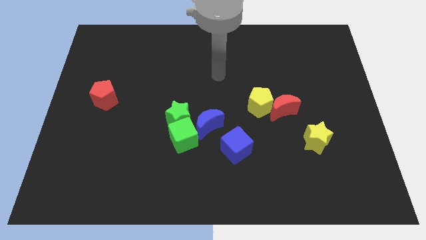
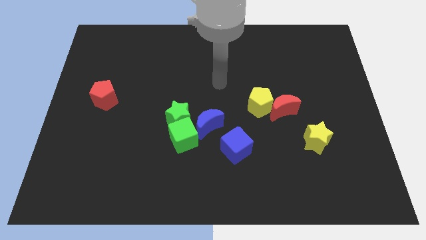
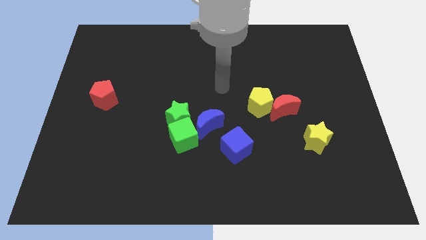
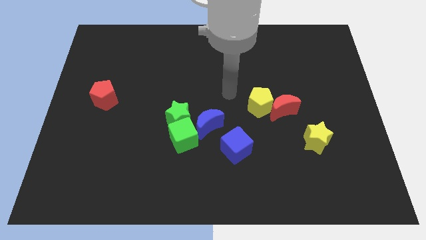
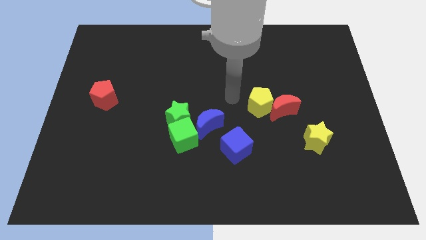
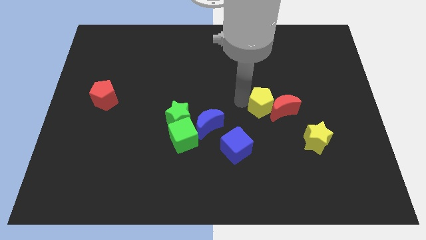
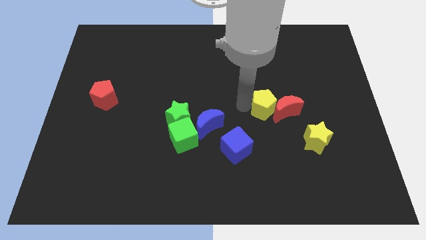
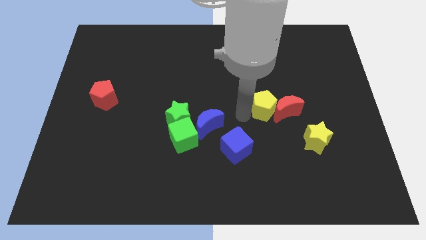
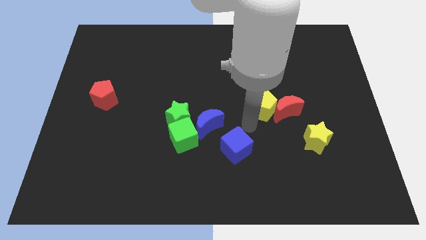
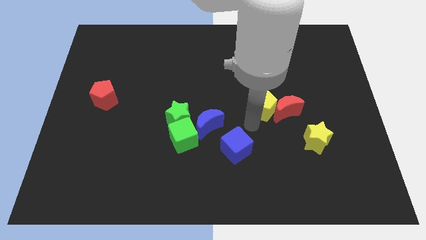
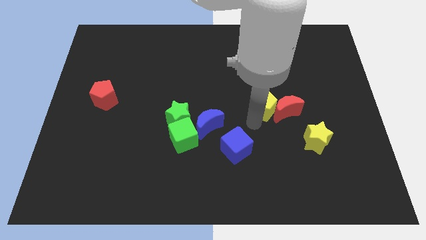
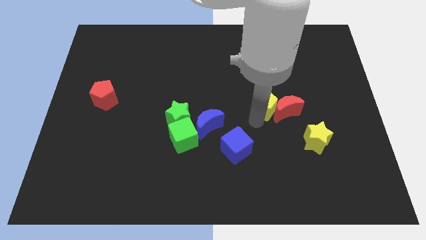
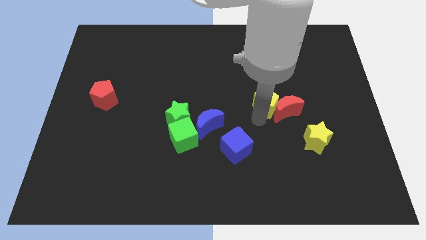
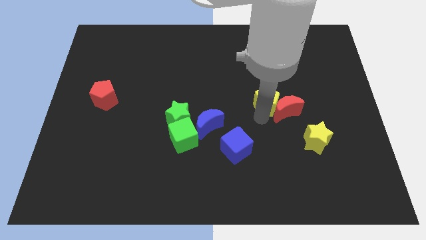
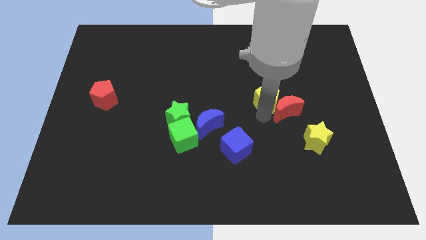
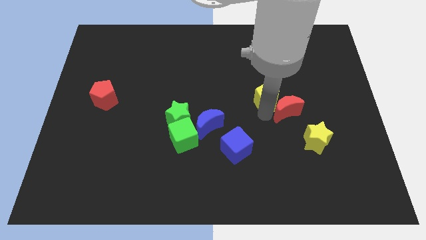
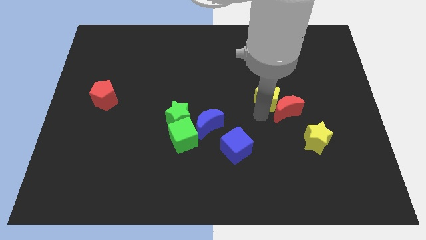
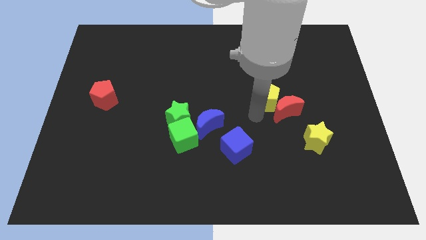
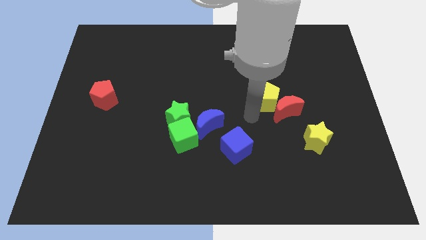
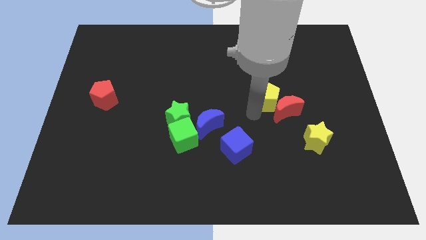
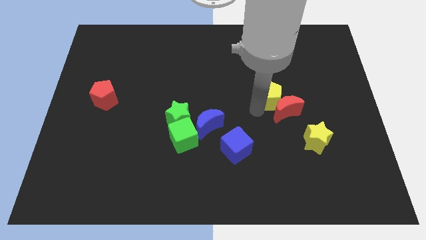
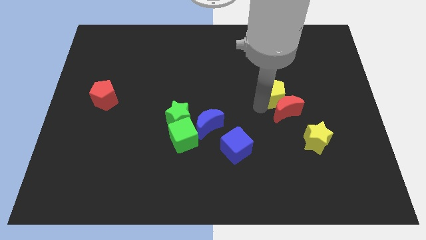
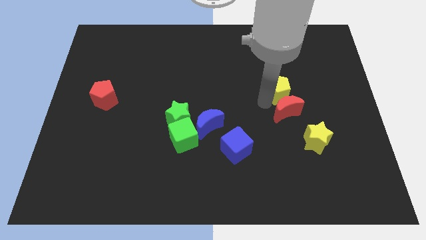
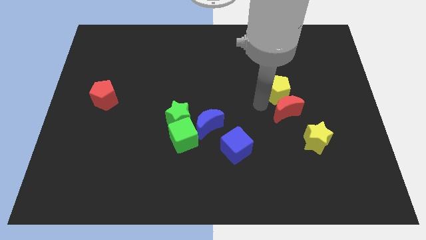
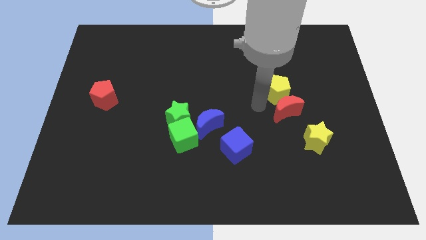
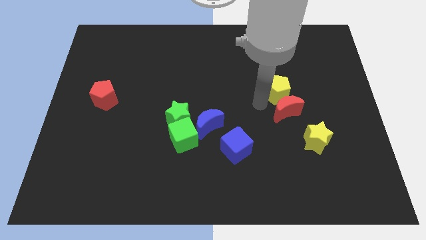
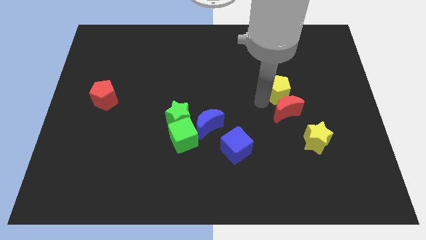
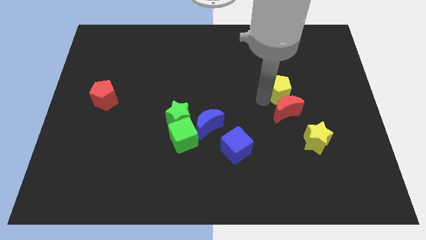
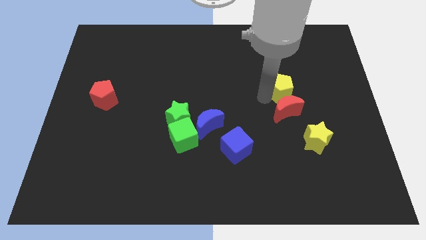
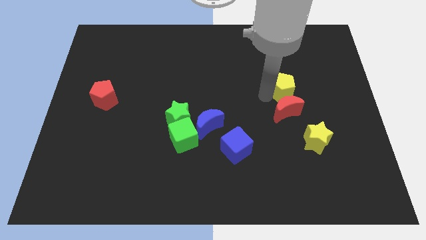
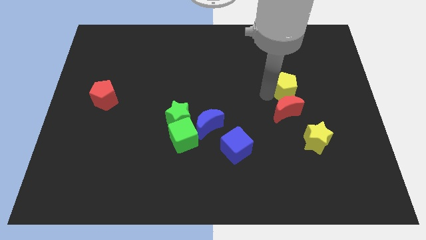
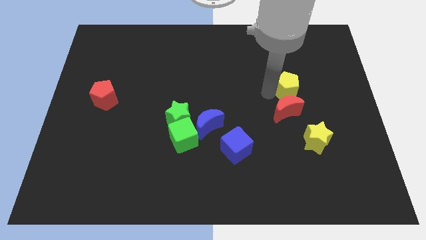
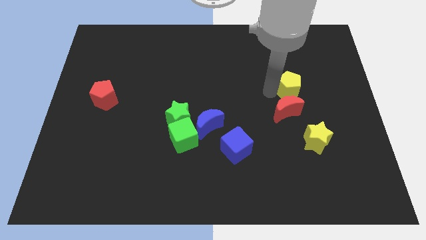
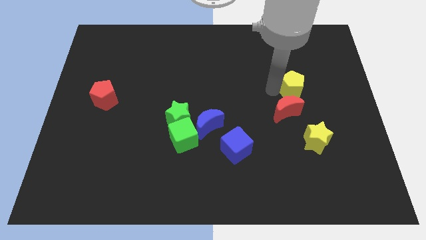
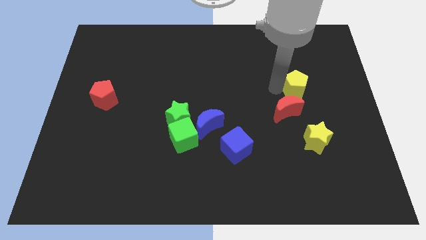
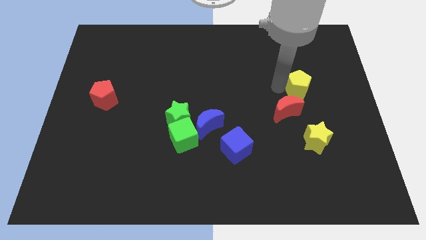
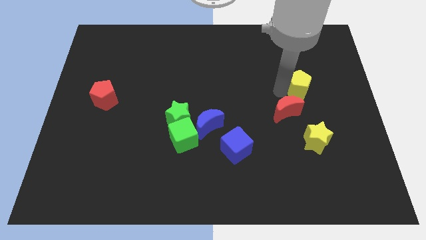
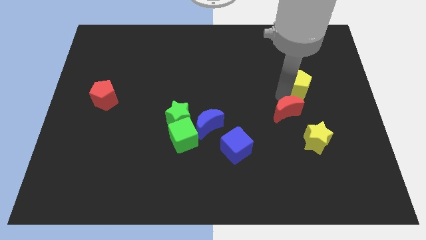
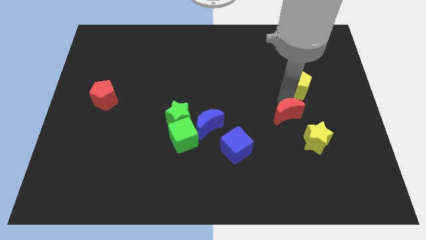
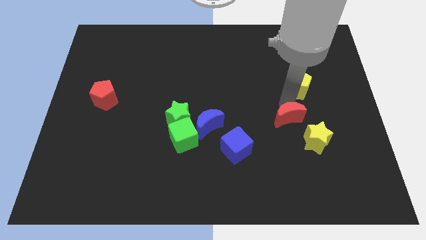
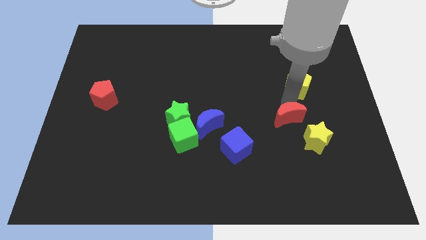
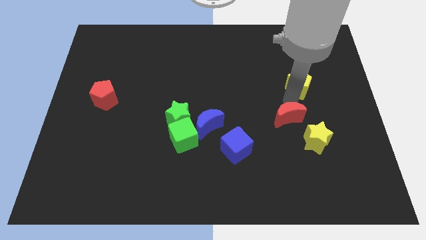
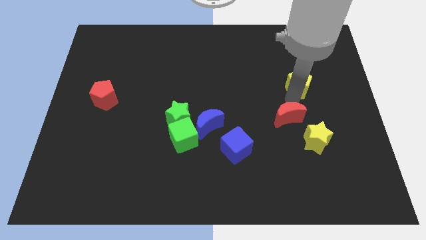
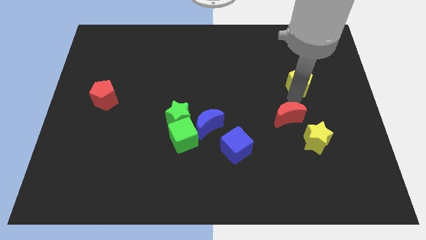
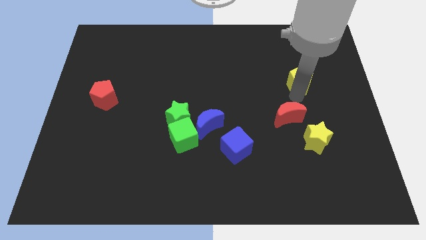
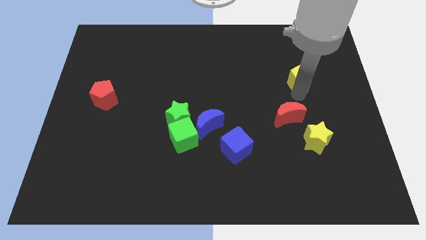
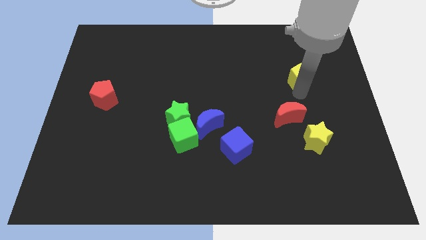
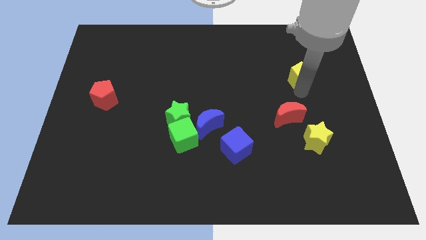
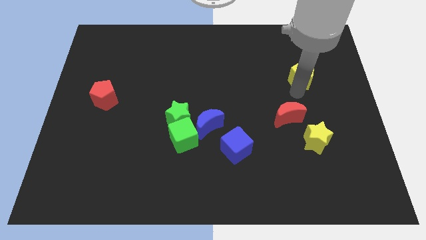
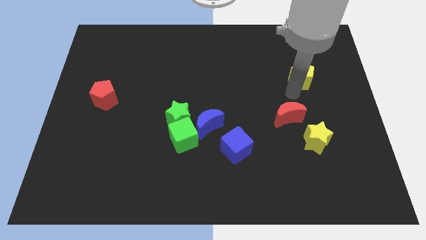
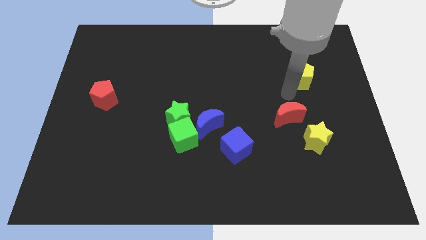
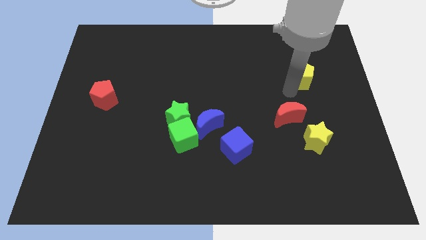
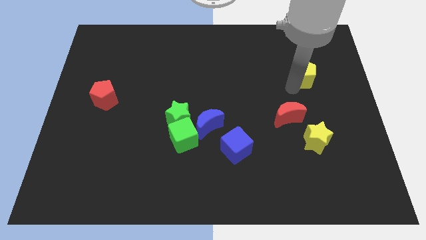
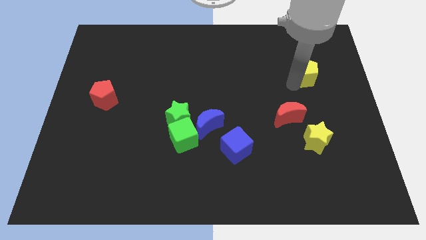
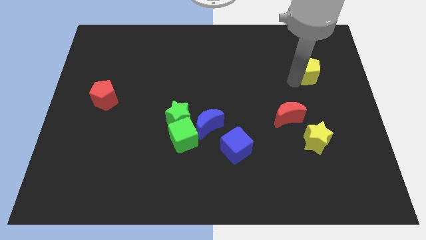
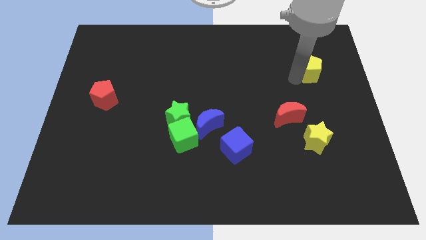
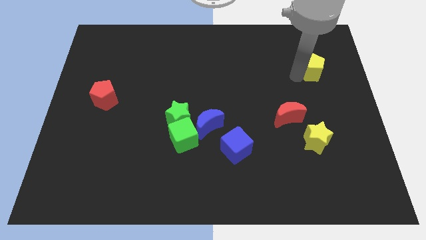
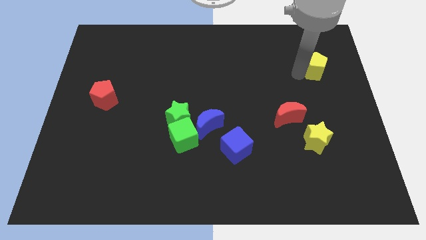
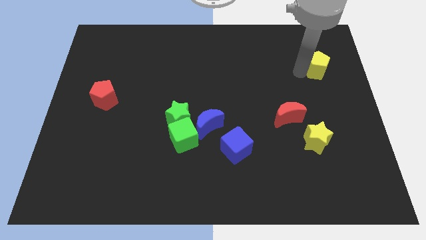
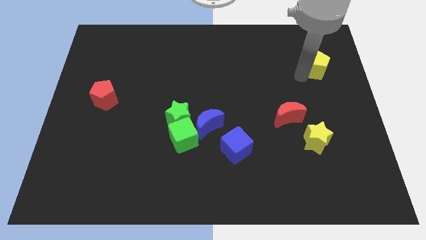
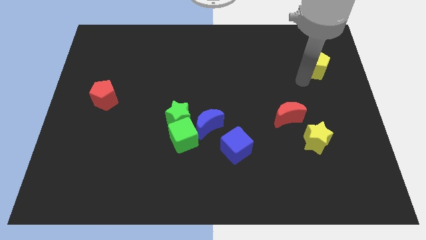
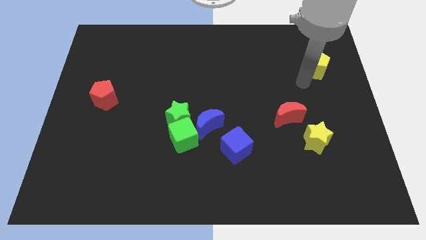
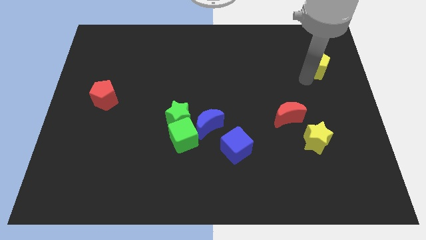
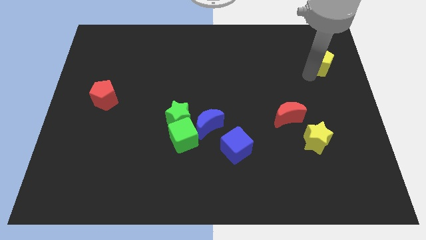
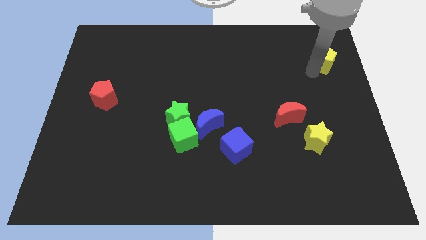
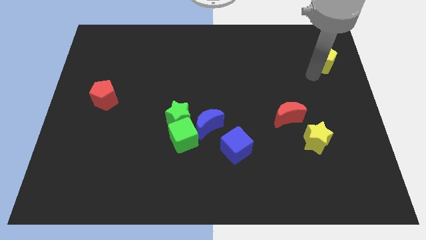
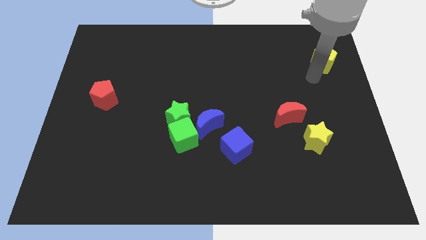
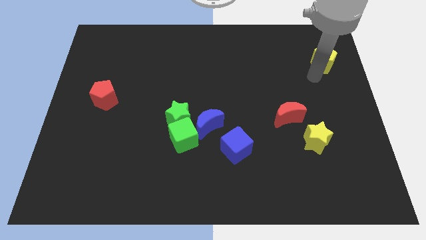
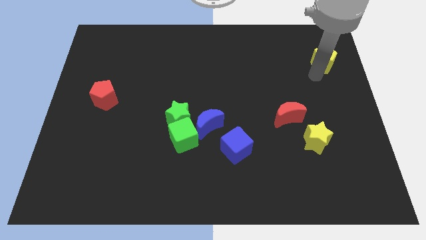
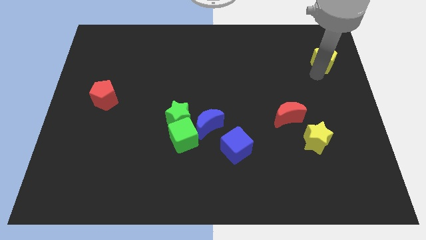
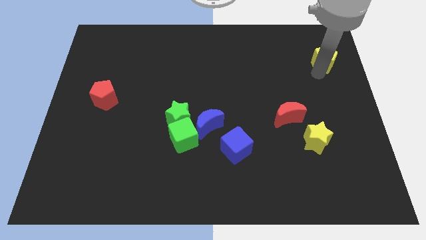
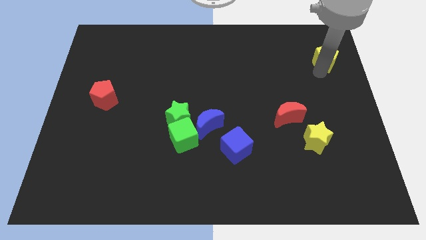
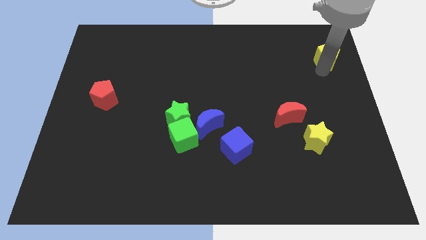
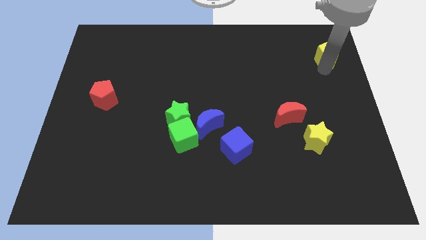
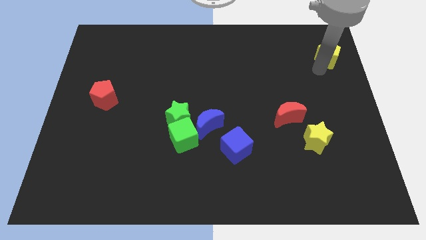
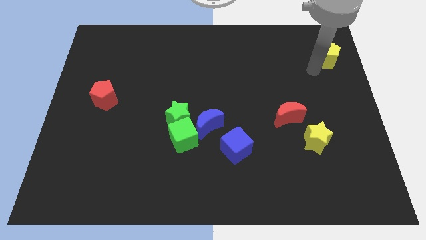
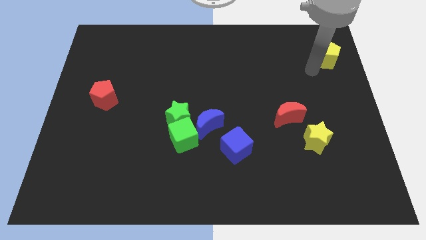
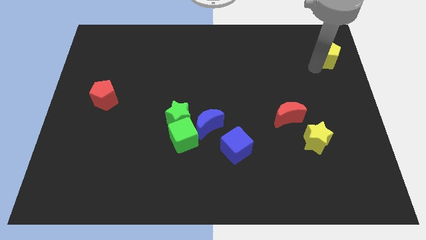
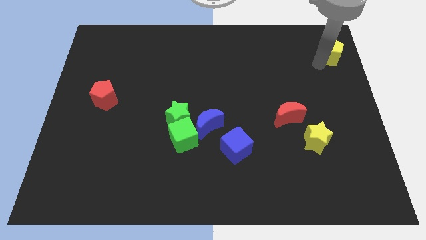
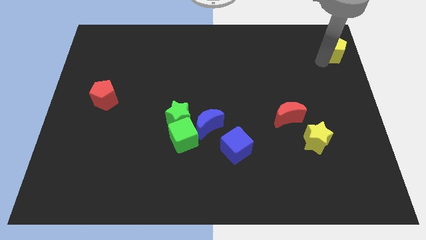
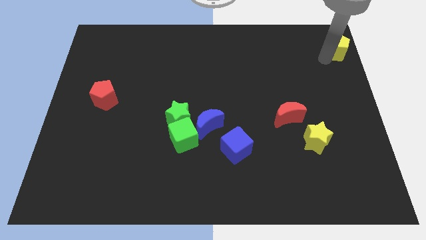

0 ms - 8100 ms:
put the yellow pentagon to the top right corner
